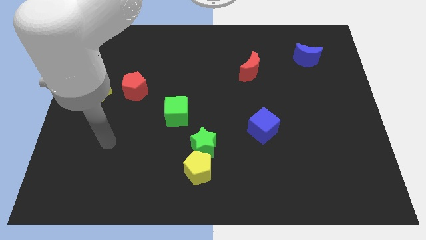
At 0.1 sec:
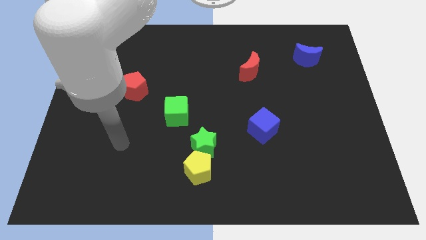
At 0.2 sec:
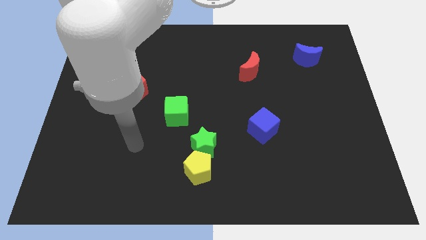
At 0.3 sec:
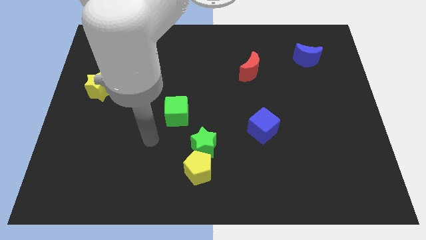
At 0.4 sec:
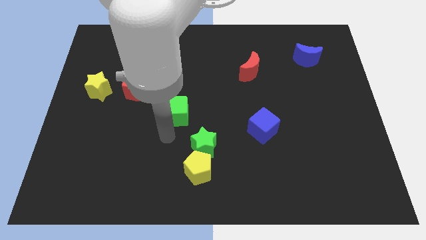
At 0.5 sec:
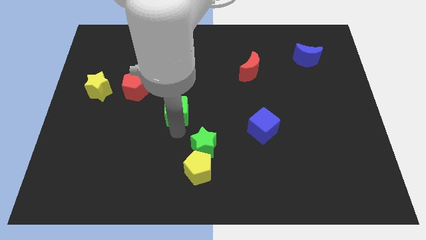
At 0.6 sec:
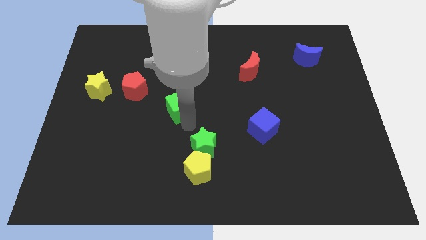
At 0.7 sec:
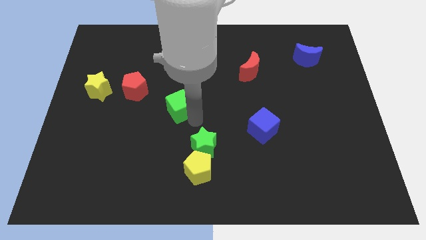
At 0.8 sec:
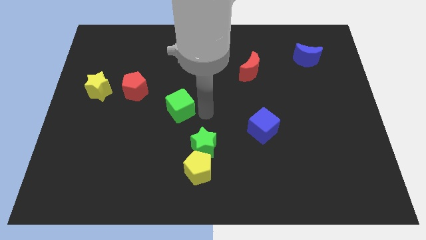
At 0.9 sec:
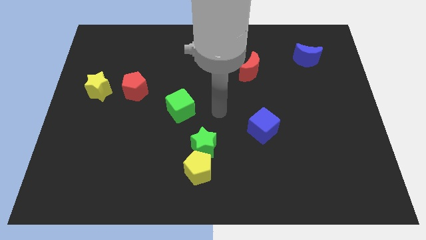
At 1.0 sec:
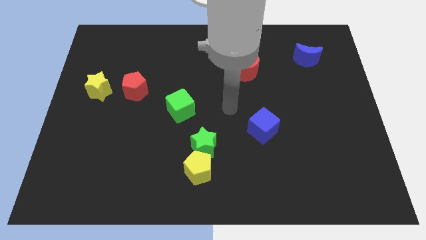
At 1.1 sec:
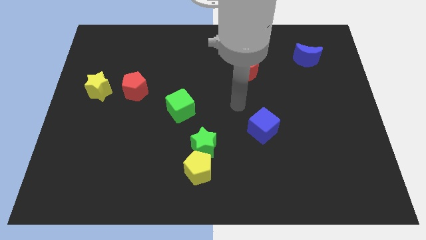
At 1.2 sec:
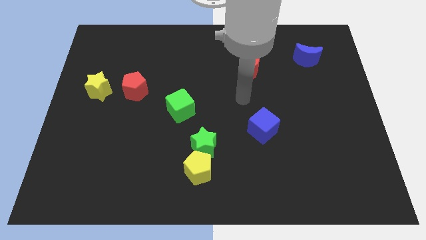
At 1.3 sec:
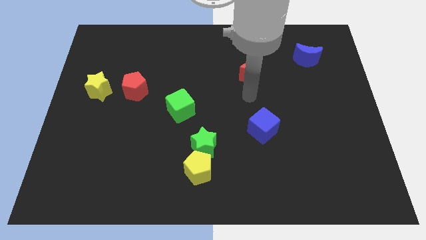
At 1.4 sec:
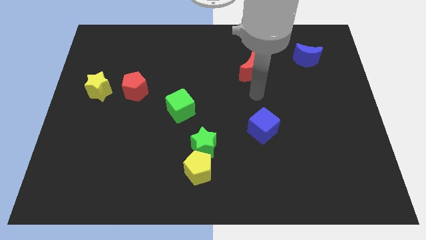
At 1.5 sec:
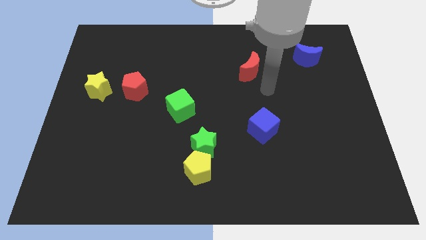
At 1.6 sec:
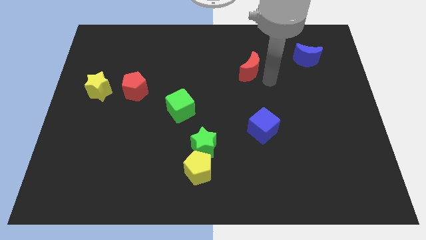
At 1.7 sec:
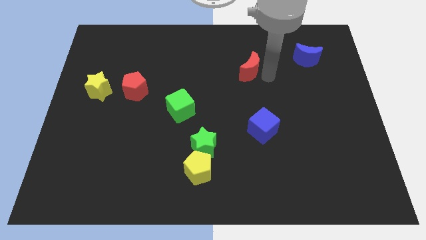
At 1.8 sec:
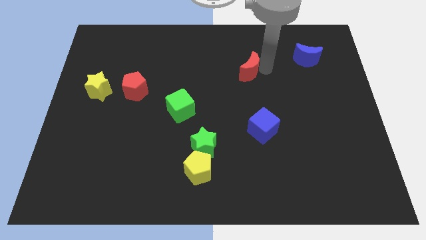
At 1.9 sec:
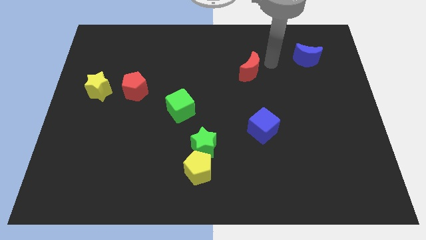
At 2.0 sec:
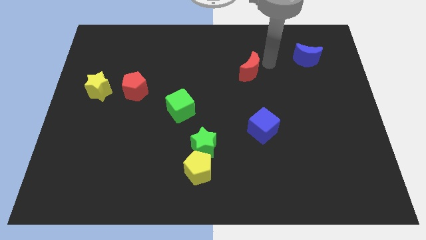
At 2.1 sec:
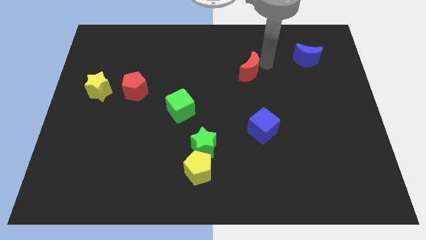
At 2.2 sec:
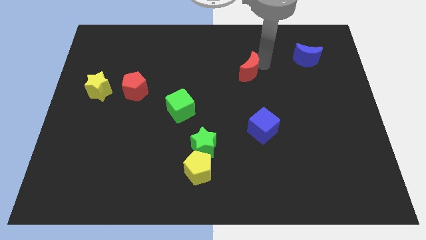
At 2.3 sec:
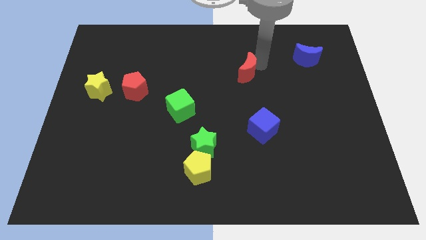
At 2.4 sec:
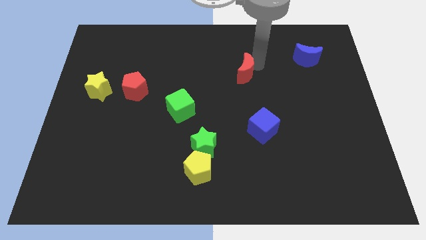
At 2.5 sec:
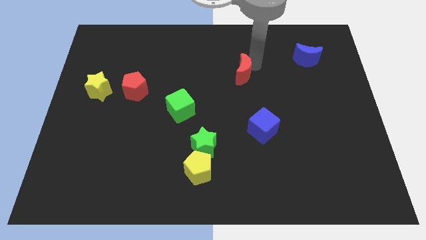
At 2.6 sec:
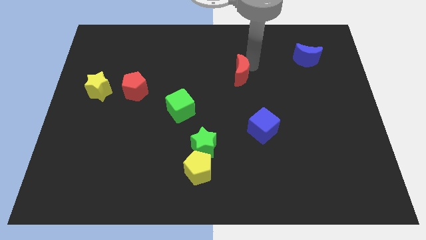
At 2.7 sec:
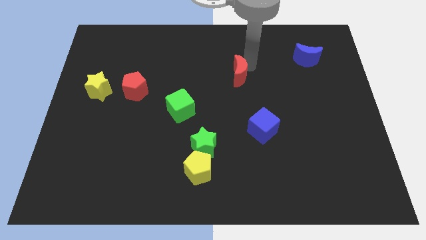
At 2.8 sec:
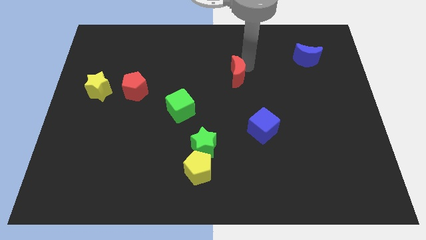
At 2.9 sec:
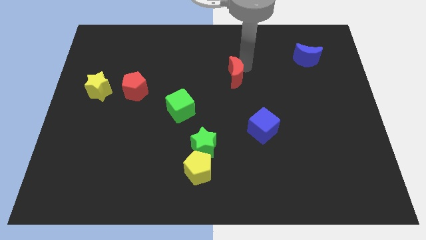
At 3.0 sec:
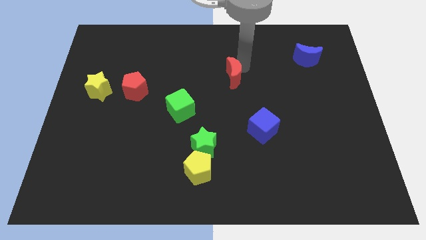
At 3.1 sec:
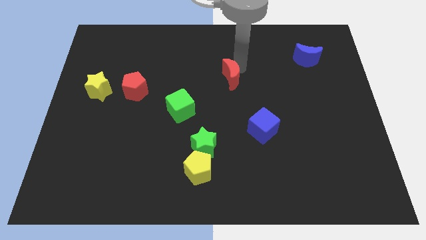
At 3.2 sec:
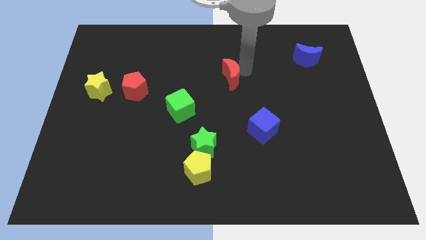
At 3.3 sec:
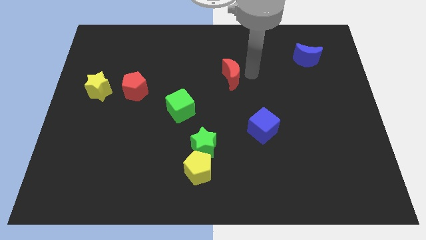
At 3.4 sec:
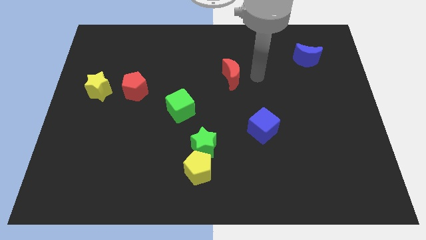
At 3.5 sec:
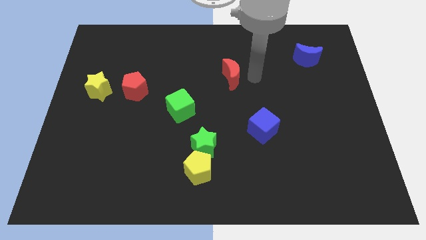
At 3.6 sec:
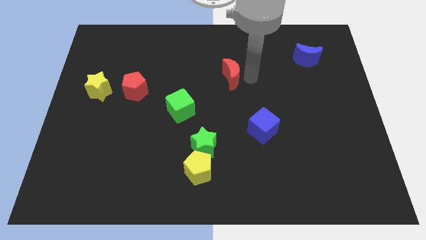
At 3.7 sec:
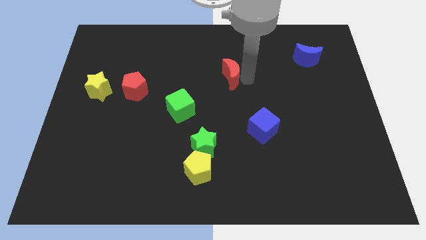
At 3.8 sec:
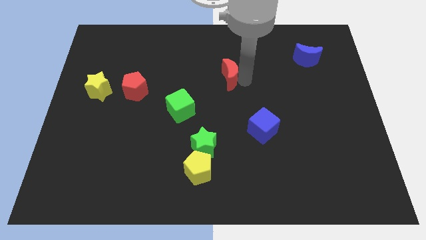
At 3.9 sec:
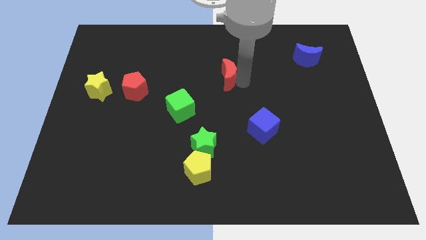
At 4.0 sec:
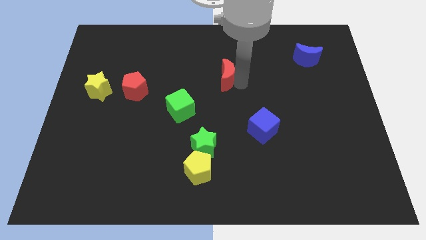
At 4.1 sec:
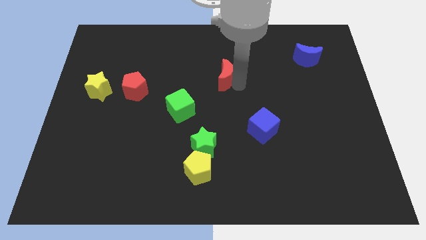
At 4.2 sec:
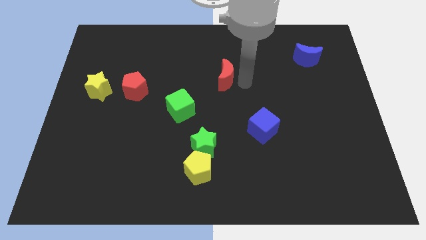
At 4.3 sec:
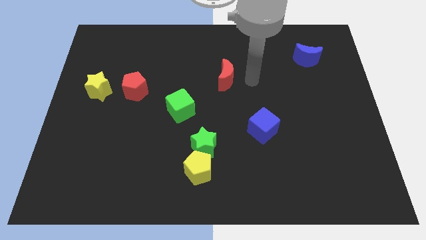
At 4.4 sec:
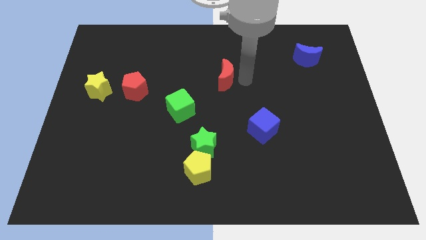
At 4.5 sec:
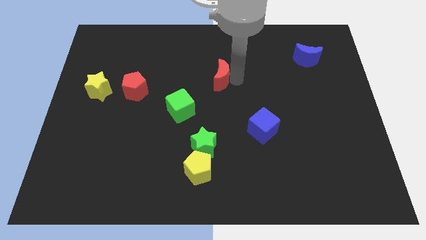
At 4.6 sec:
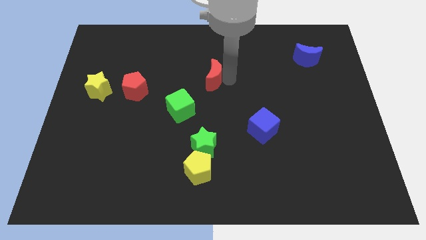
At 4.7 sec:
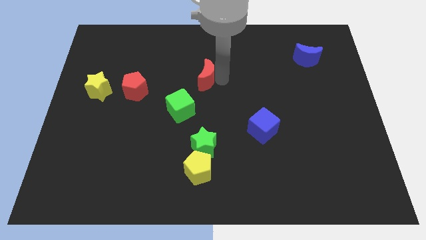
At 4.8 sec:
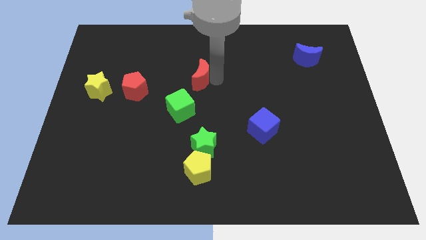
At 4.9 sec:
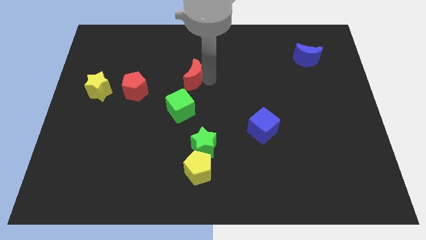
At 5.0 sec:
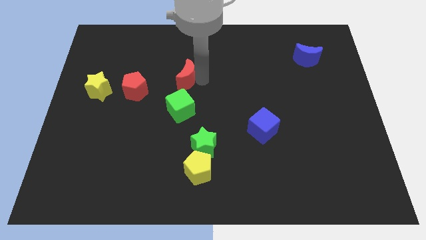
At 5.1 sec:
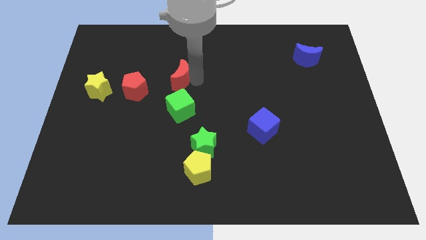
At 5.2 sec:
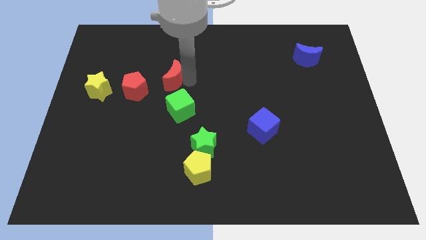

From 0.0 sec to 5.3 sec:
push the red moon to the top right side of the red pentagon
